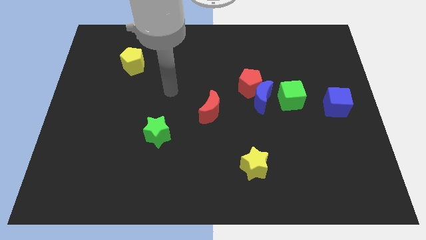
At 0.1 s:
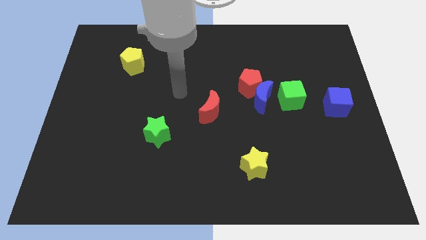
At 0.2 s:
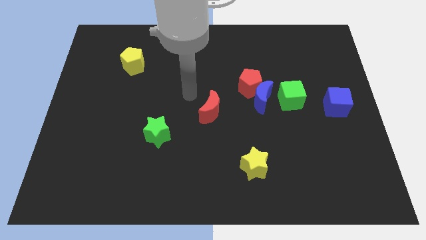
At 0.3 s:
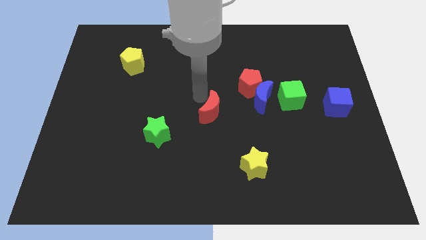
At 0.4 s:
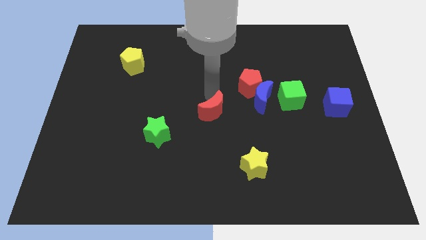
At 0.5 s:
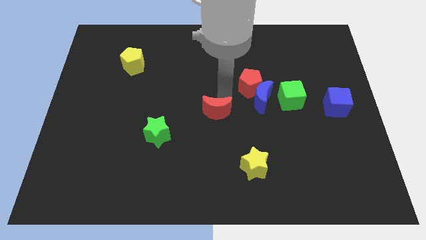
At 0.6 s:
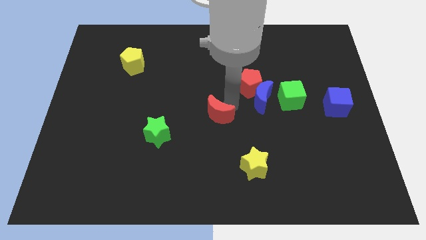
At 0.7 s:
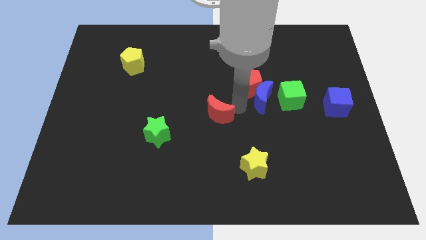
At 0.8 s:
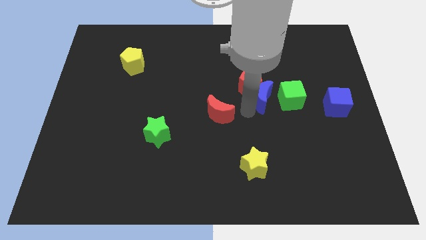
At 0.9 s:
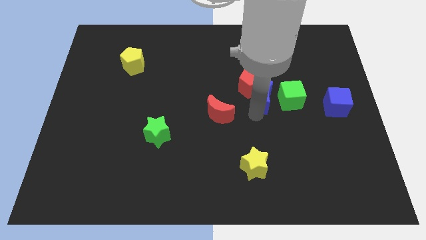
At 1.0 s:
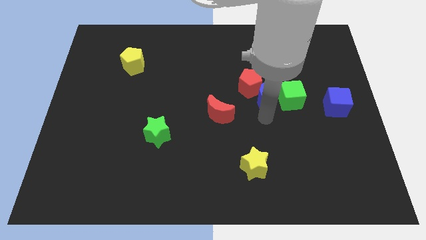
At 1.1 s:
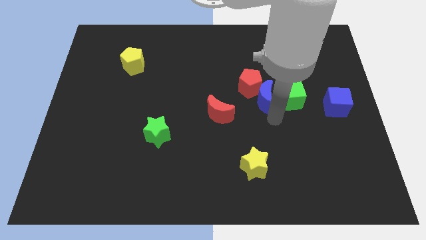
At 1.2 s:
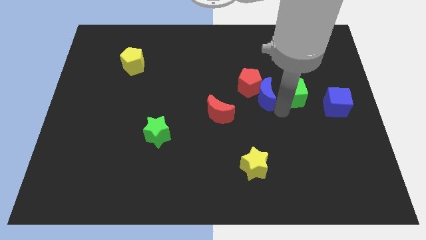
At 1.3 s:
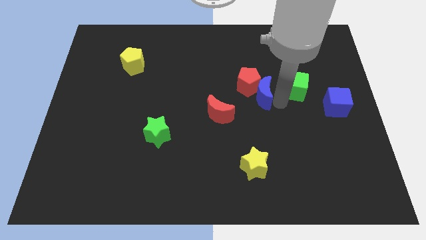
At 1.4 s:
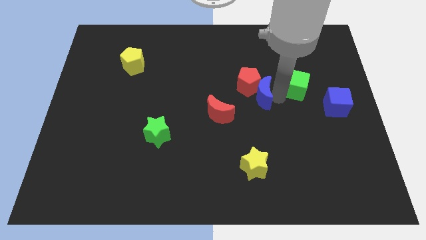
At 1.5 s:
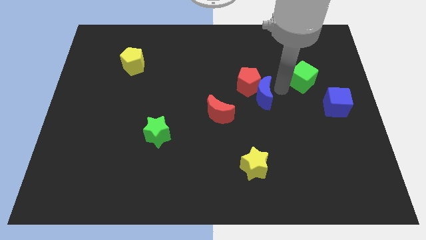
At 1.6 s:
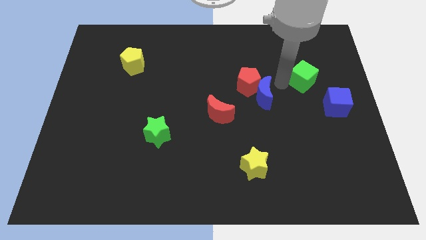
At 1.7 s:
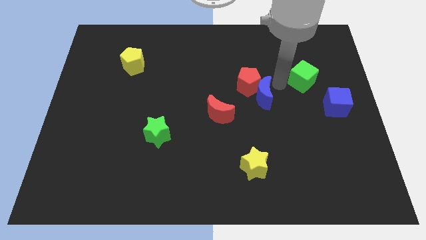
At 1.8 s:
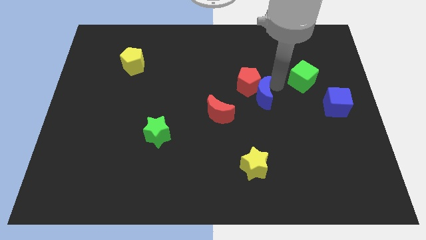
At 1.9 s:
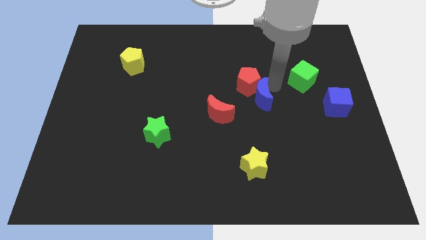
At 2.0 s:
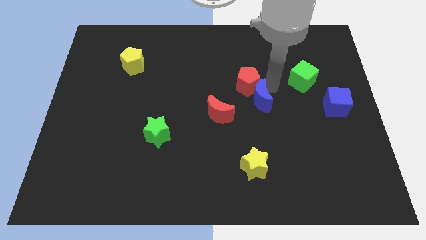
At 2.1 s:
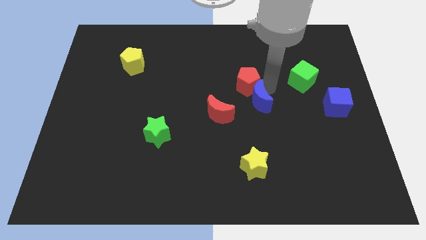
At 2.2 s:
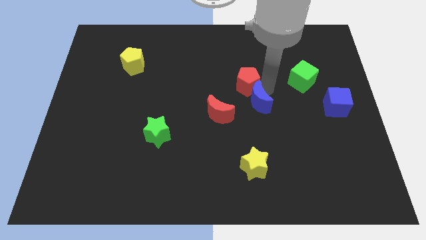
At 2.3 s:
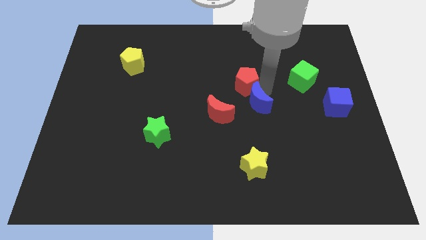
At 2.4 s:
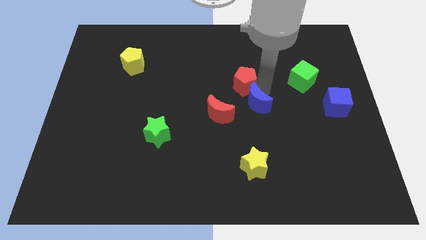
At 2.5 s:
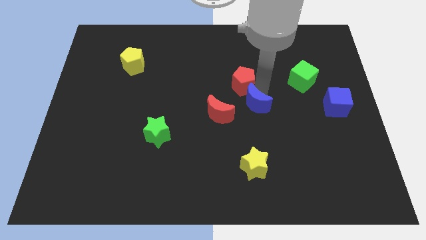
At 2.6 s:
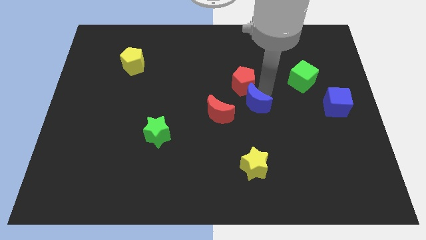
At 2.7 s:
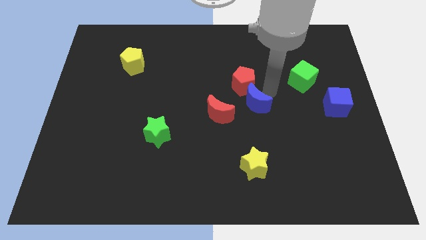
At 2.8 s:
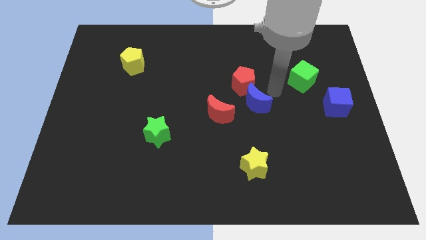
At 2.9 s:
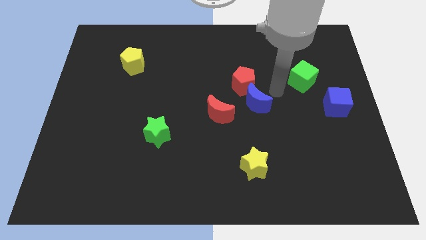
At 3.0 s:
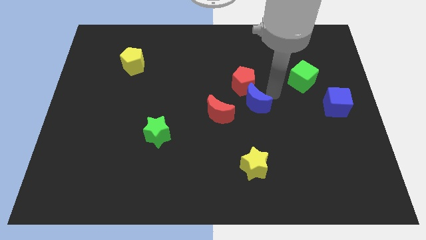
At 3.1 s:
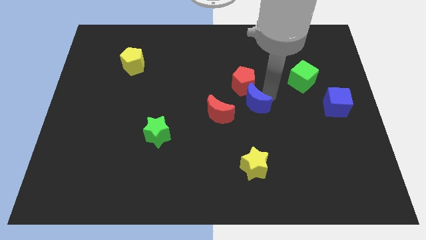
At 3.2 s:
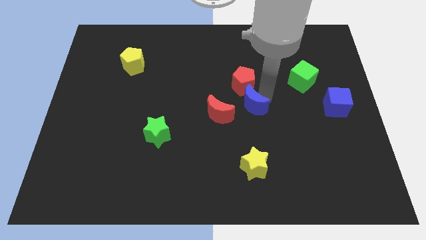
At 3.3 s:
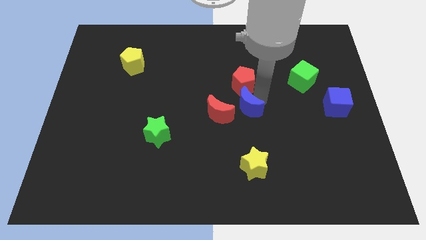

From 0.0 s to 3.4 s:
pull the blue moon apart from the red pentagon and green cube

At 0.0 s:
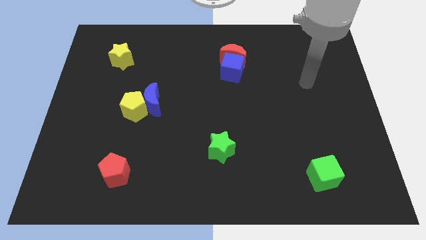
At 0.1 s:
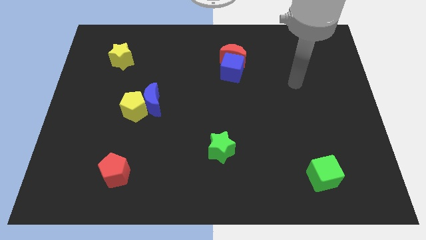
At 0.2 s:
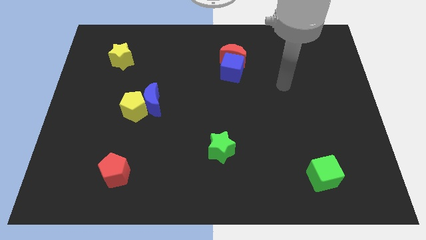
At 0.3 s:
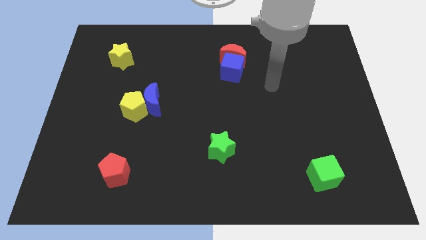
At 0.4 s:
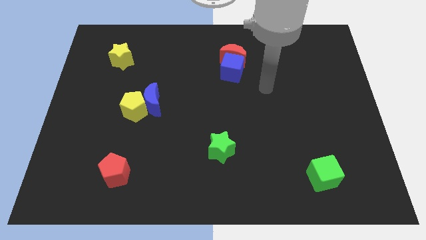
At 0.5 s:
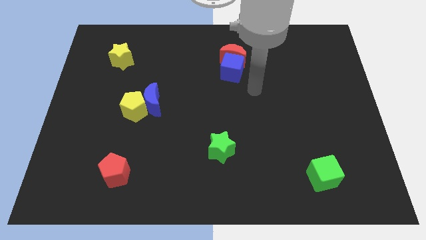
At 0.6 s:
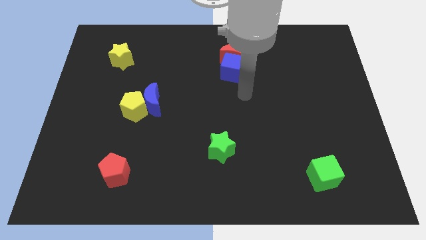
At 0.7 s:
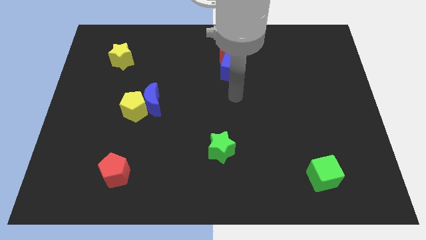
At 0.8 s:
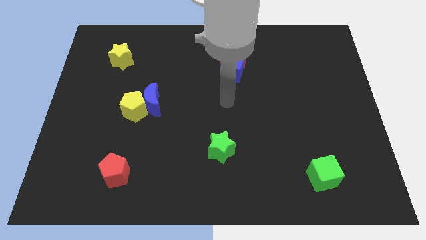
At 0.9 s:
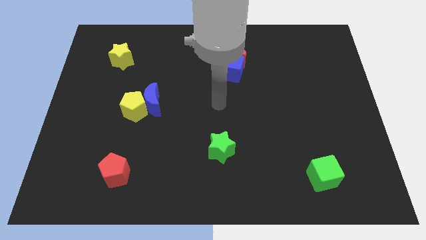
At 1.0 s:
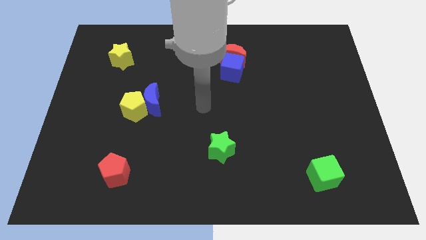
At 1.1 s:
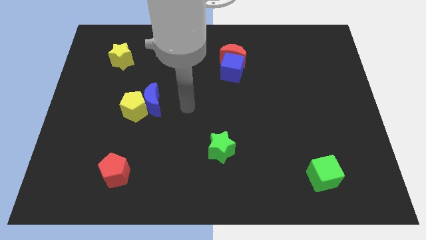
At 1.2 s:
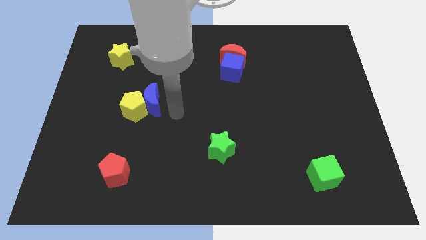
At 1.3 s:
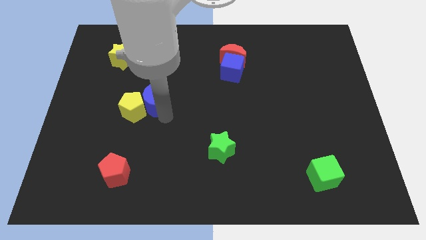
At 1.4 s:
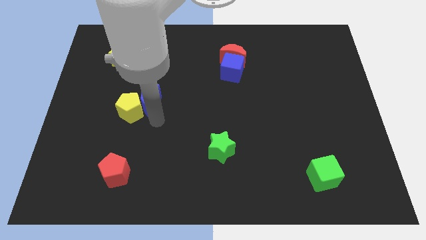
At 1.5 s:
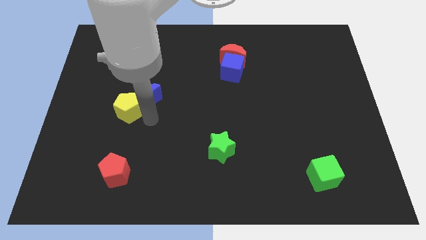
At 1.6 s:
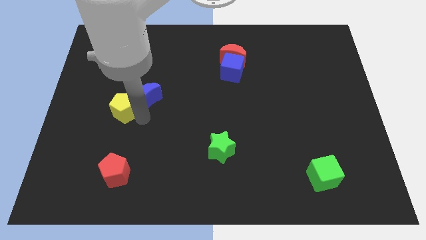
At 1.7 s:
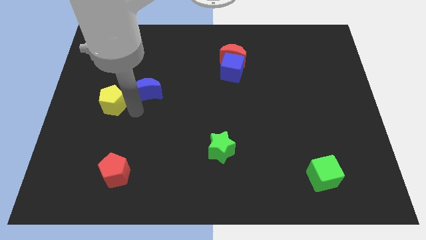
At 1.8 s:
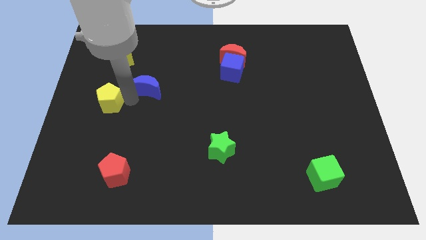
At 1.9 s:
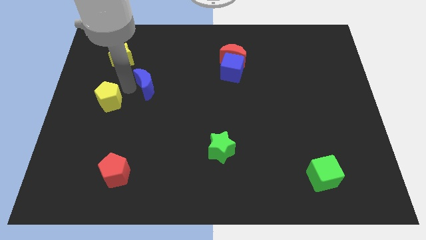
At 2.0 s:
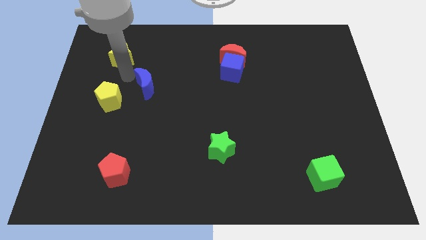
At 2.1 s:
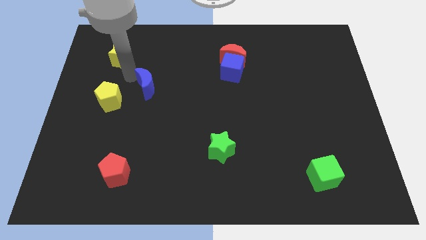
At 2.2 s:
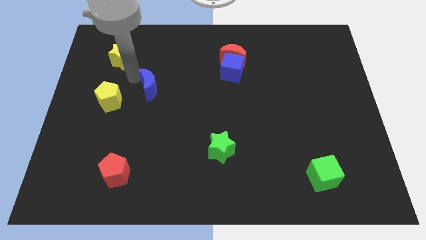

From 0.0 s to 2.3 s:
separate the blue moon from the yellow pentagon

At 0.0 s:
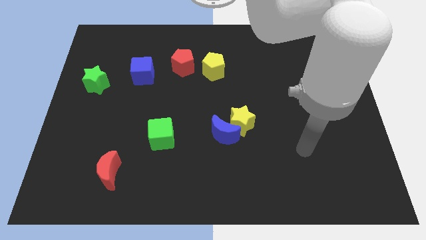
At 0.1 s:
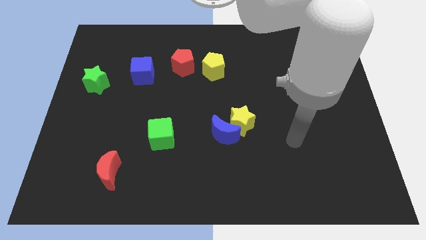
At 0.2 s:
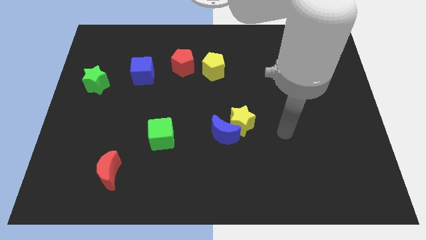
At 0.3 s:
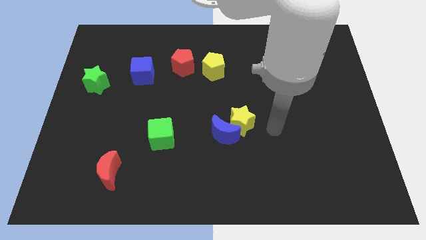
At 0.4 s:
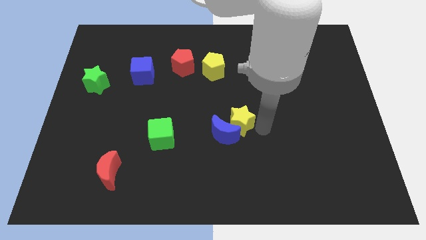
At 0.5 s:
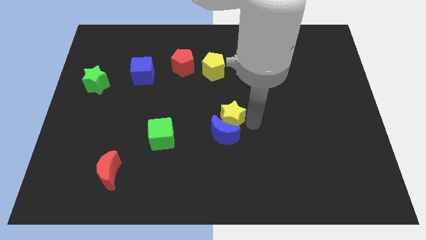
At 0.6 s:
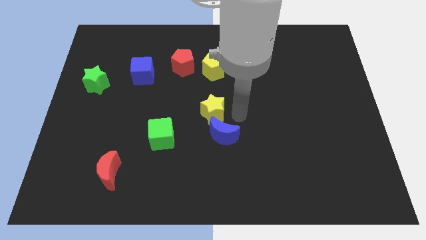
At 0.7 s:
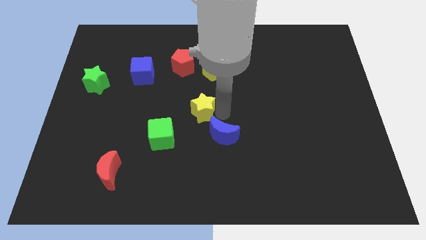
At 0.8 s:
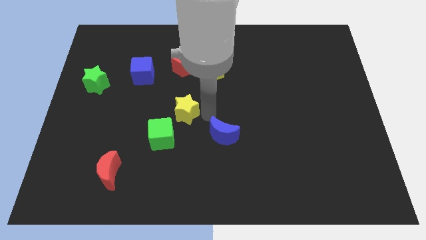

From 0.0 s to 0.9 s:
separate the blue moon from the yellow star

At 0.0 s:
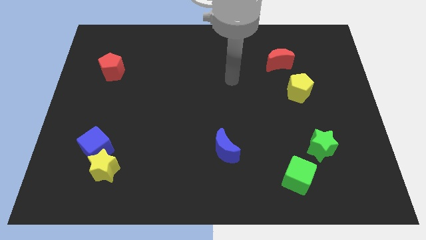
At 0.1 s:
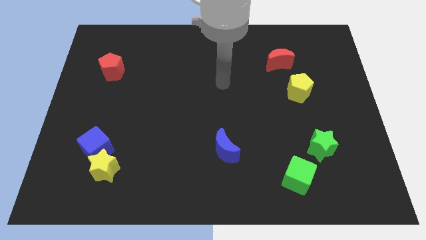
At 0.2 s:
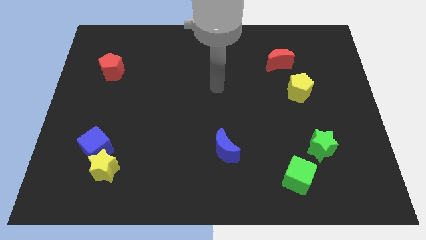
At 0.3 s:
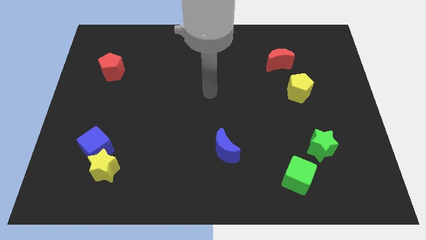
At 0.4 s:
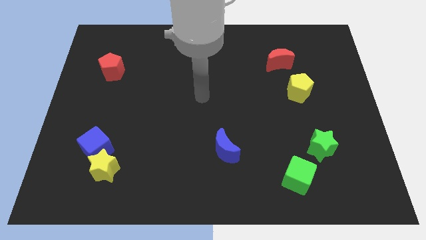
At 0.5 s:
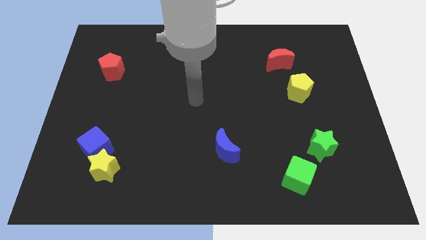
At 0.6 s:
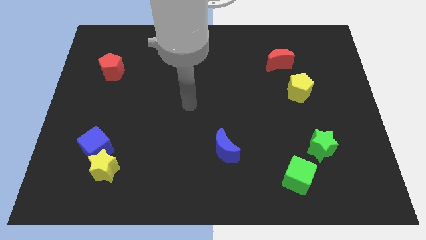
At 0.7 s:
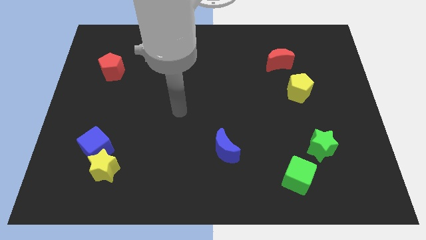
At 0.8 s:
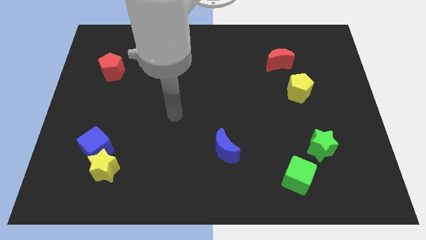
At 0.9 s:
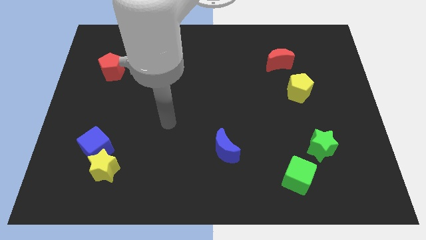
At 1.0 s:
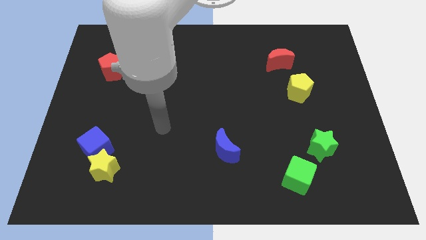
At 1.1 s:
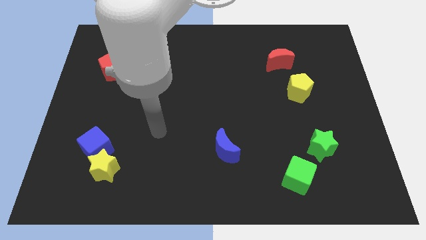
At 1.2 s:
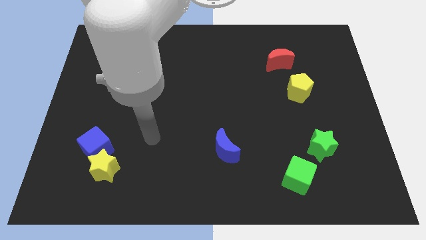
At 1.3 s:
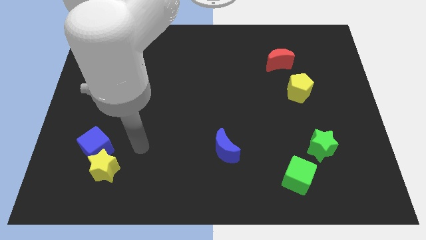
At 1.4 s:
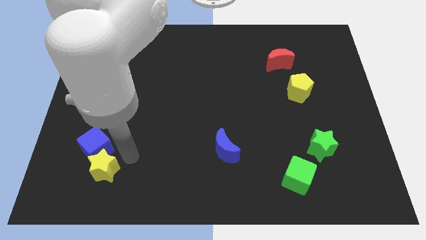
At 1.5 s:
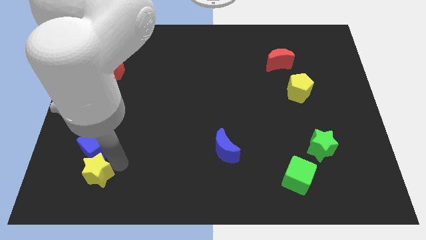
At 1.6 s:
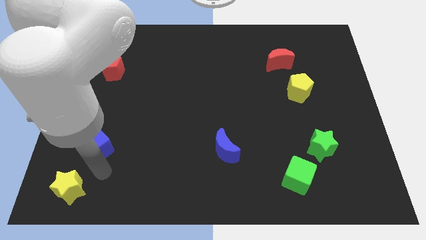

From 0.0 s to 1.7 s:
separate the blue cube from the yellow star

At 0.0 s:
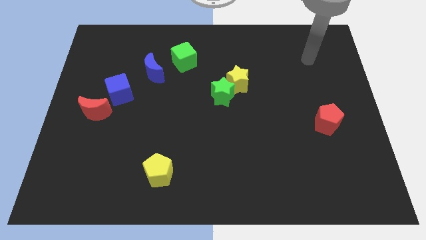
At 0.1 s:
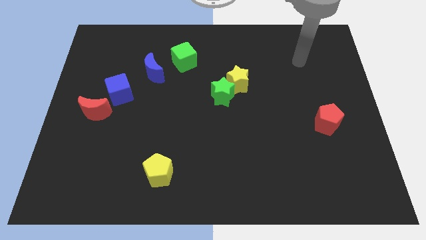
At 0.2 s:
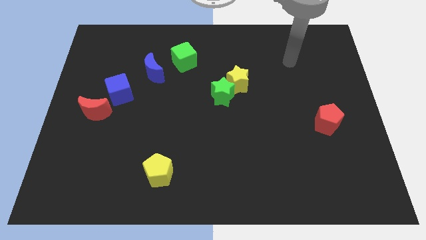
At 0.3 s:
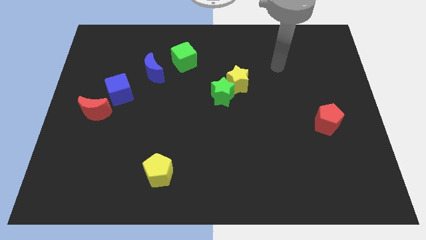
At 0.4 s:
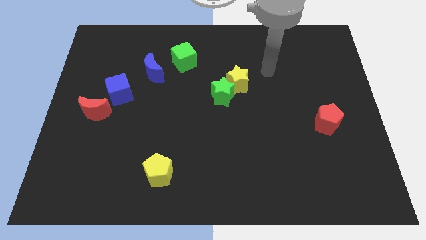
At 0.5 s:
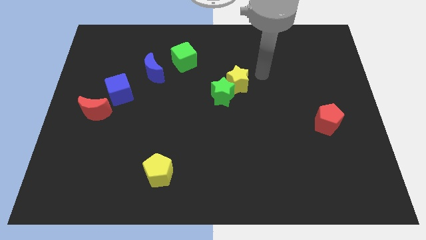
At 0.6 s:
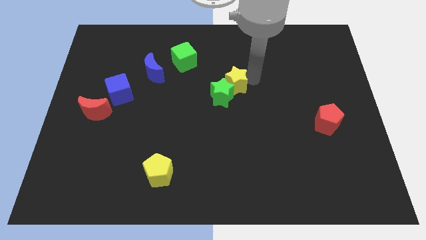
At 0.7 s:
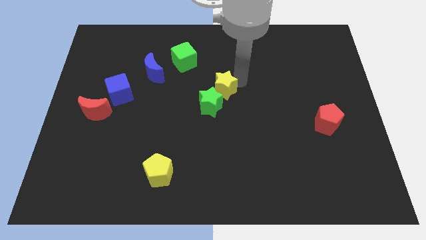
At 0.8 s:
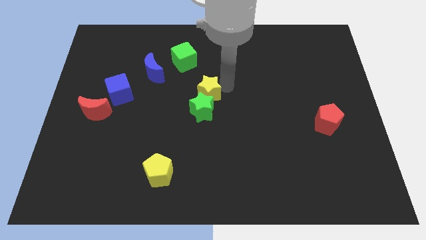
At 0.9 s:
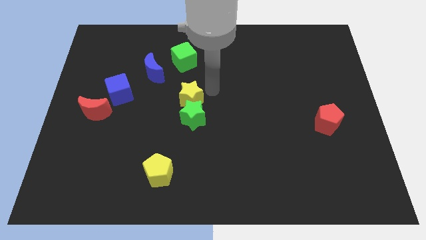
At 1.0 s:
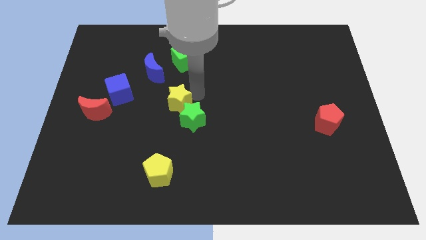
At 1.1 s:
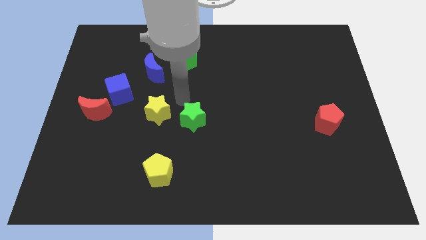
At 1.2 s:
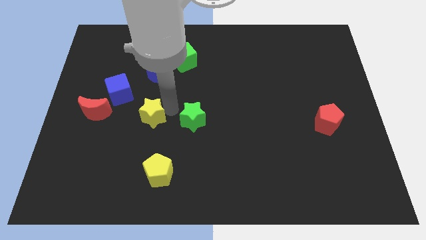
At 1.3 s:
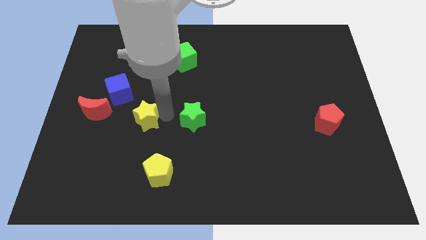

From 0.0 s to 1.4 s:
separate the green star from the yellow star
